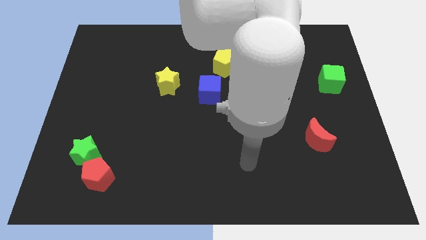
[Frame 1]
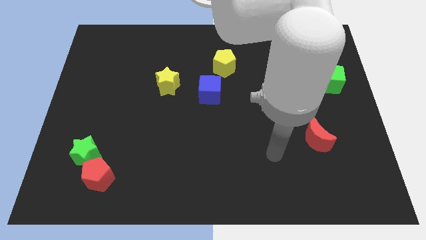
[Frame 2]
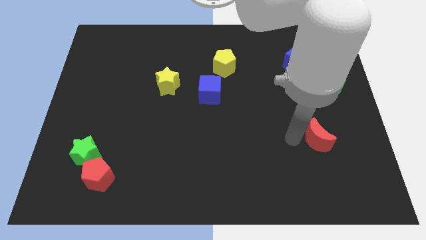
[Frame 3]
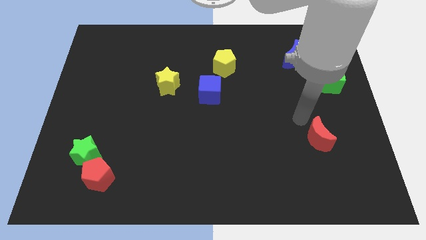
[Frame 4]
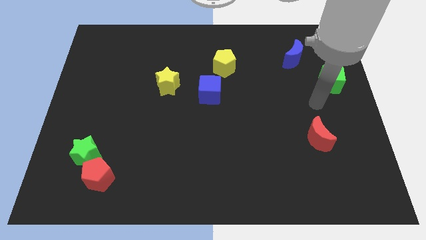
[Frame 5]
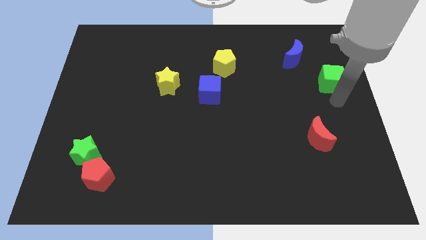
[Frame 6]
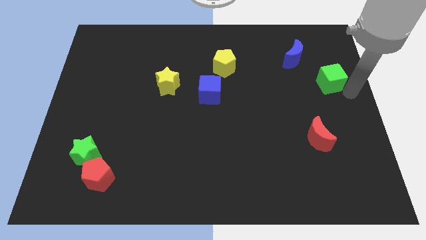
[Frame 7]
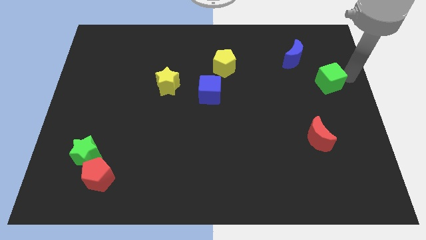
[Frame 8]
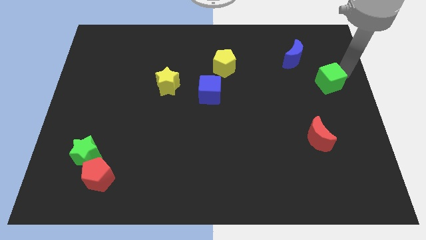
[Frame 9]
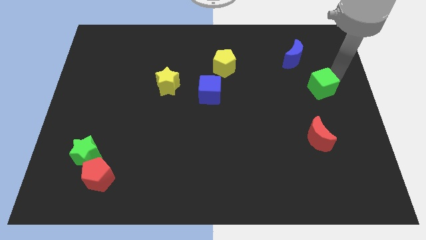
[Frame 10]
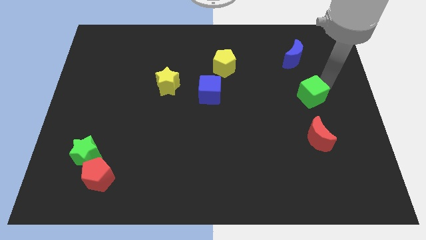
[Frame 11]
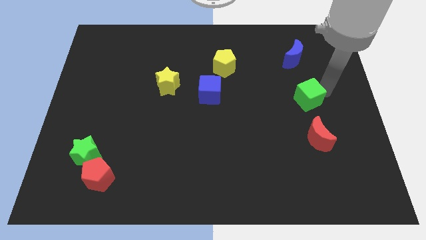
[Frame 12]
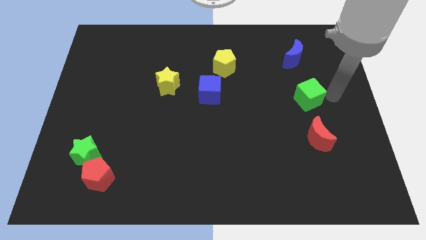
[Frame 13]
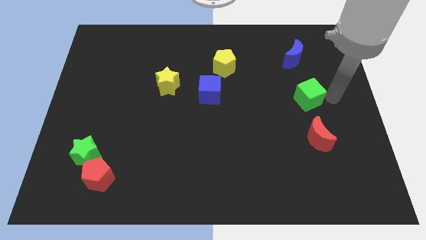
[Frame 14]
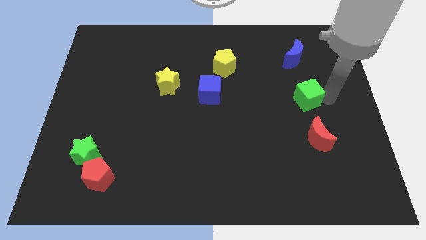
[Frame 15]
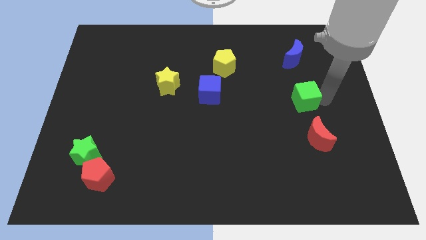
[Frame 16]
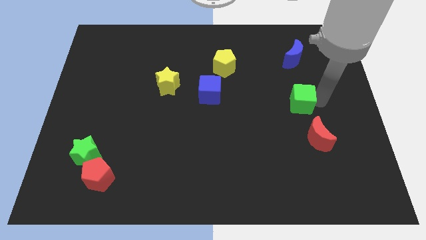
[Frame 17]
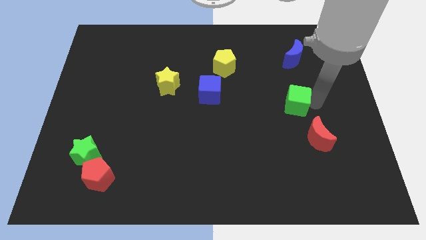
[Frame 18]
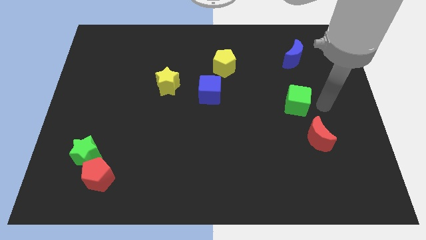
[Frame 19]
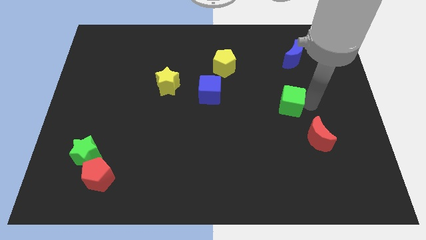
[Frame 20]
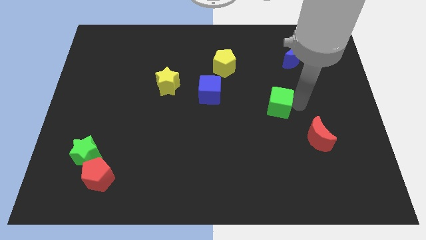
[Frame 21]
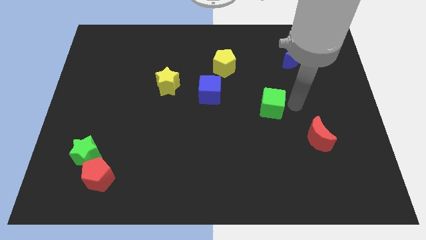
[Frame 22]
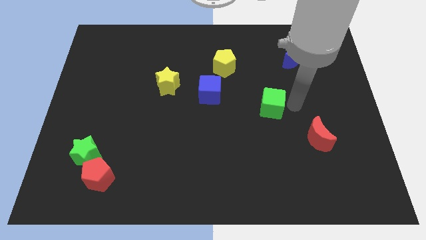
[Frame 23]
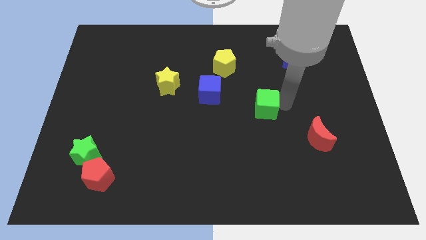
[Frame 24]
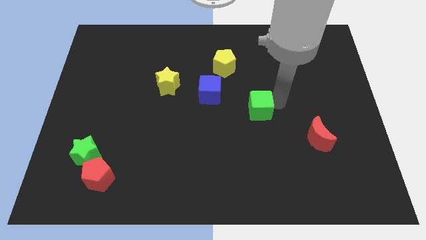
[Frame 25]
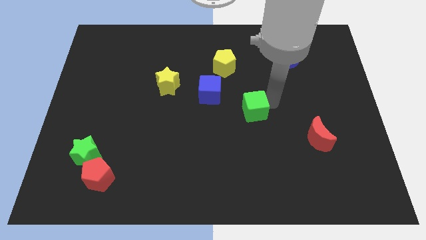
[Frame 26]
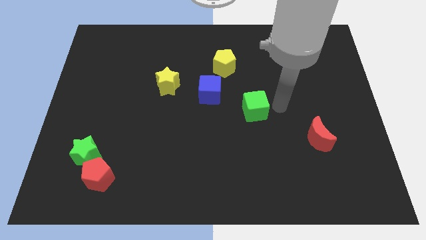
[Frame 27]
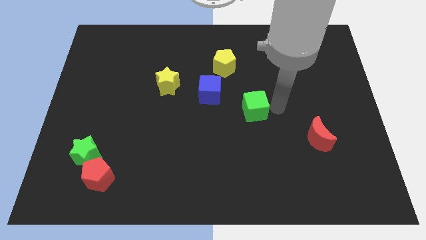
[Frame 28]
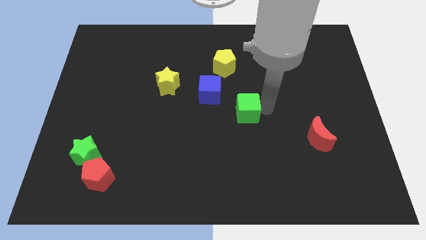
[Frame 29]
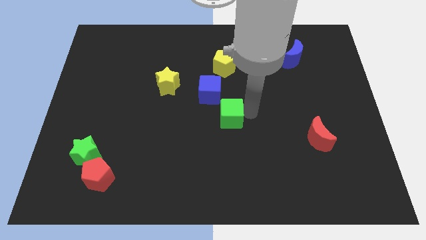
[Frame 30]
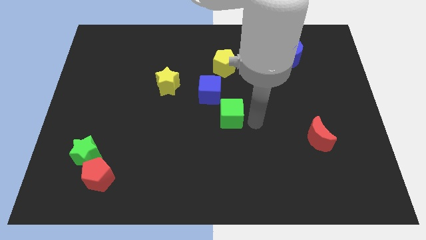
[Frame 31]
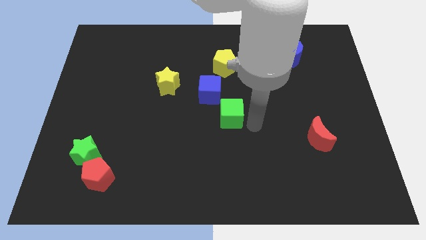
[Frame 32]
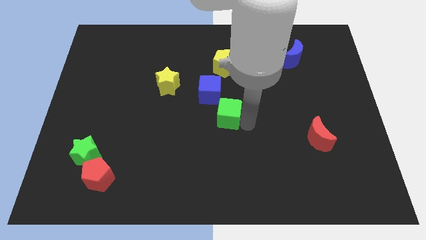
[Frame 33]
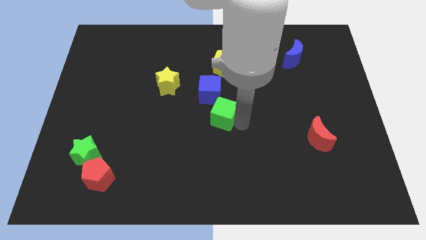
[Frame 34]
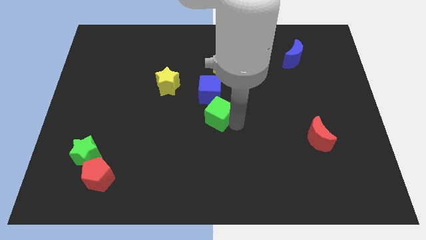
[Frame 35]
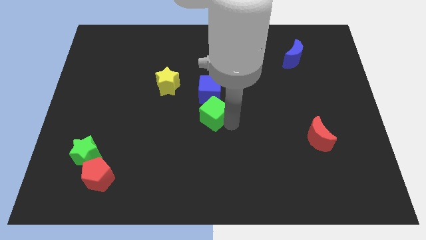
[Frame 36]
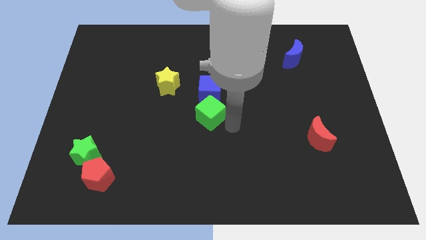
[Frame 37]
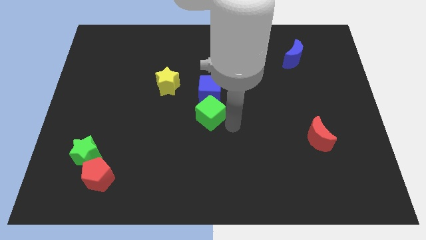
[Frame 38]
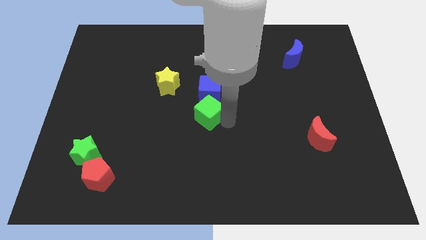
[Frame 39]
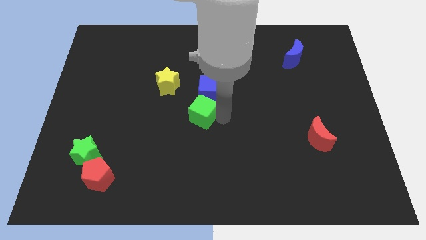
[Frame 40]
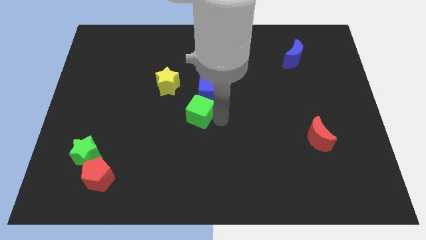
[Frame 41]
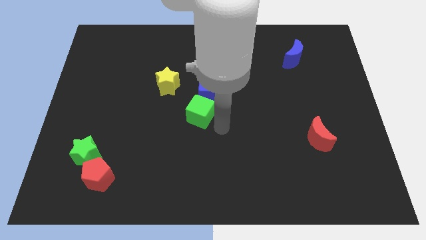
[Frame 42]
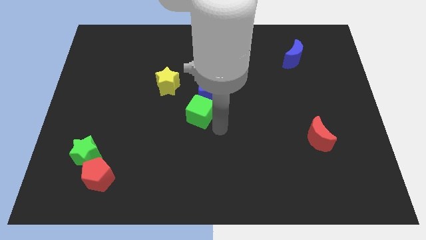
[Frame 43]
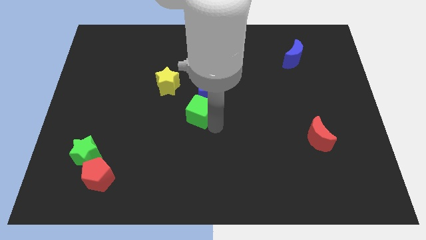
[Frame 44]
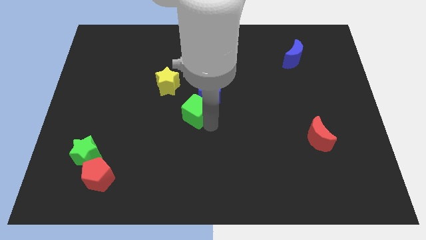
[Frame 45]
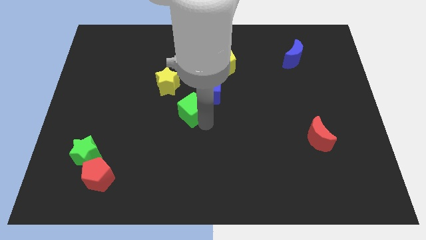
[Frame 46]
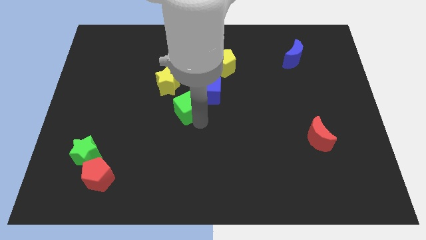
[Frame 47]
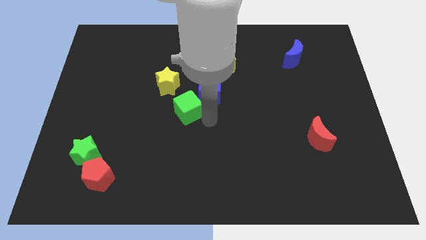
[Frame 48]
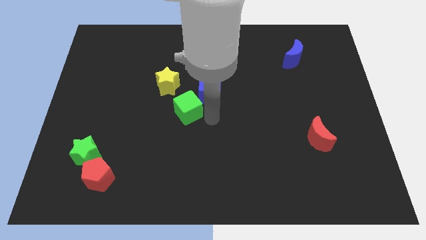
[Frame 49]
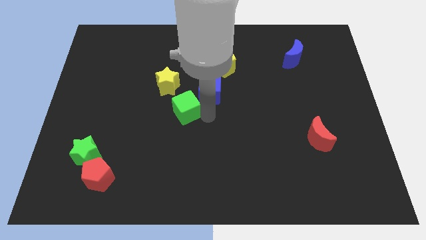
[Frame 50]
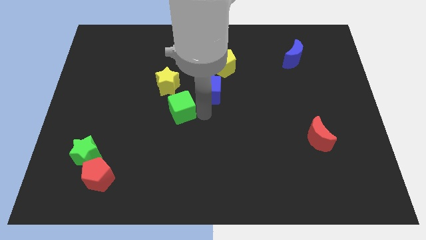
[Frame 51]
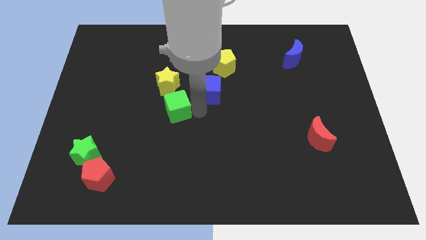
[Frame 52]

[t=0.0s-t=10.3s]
move the green cube to the left side of the blue cube

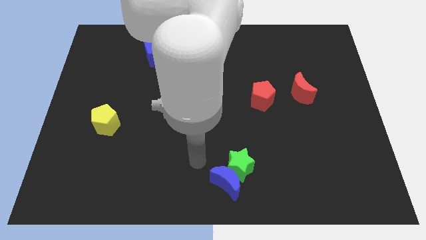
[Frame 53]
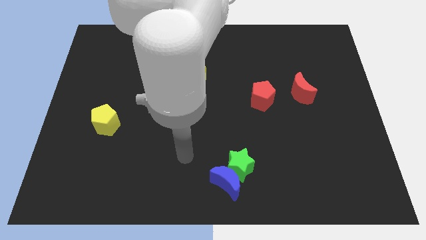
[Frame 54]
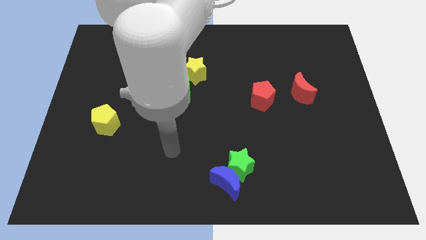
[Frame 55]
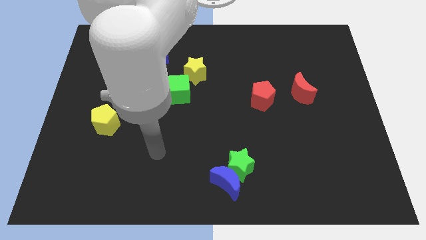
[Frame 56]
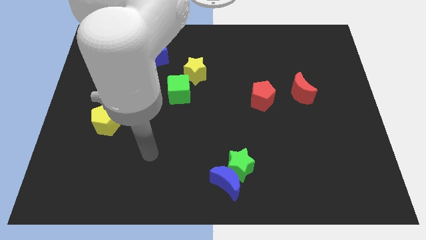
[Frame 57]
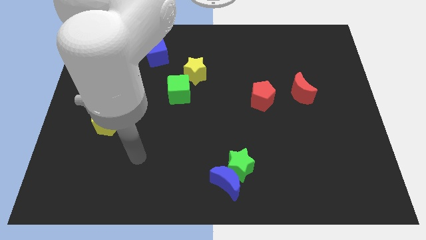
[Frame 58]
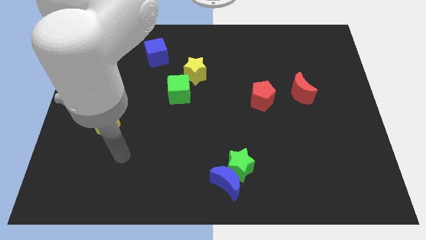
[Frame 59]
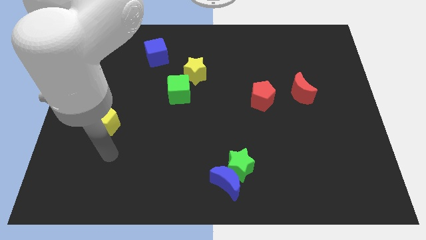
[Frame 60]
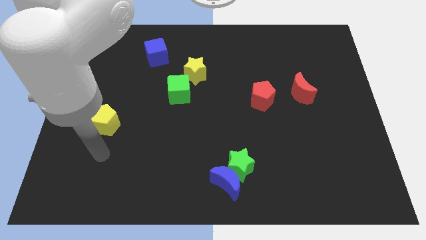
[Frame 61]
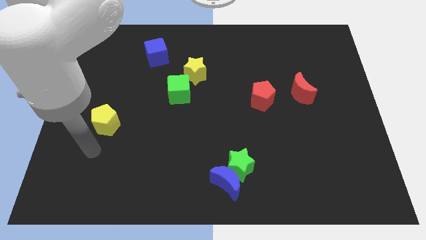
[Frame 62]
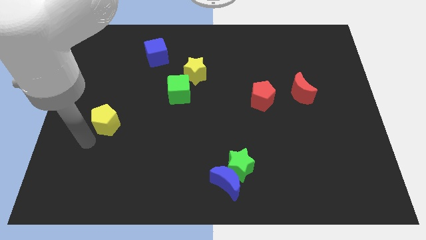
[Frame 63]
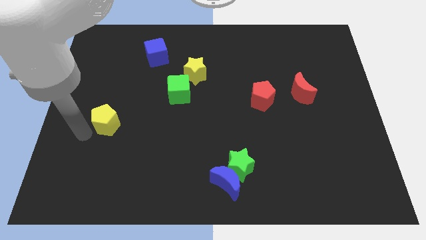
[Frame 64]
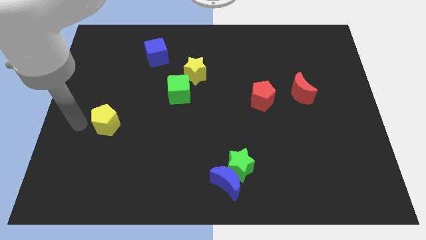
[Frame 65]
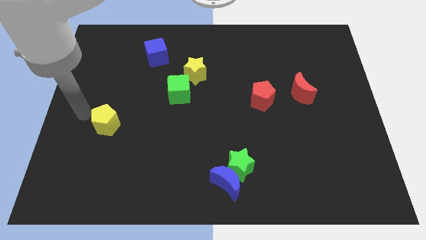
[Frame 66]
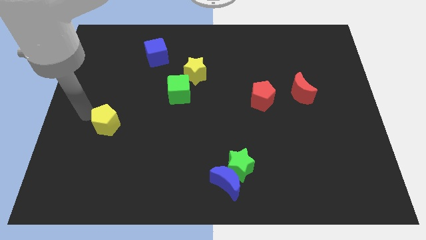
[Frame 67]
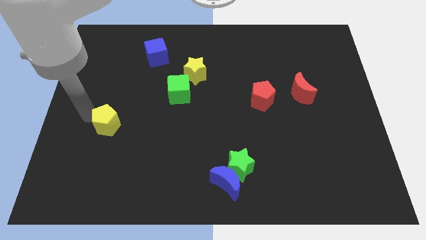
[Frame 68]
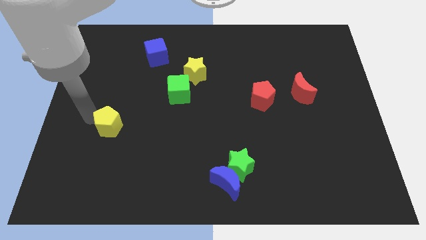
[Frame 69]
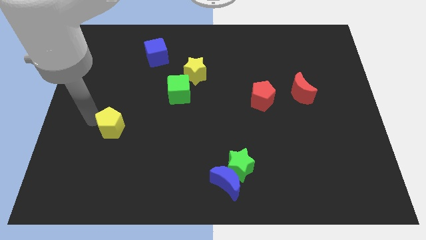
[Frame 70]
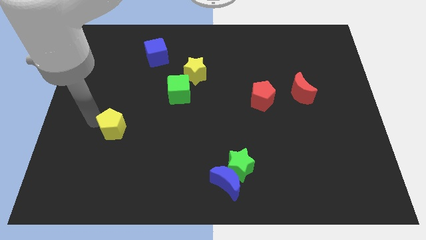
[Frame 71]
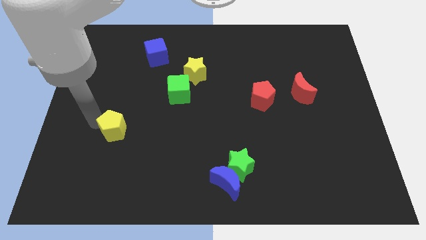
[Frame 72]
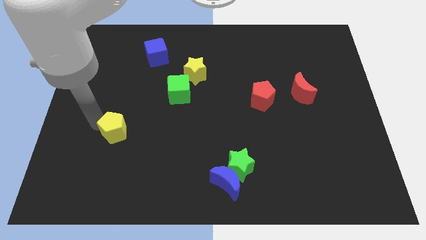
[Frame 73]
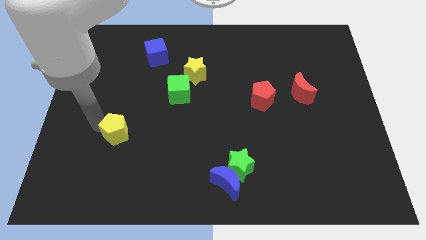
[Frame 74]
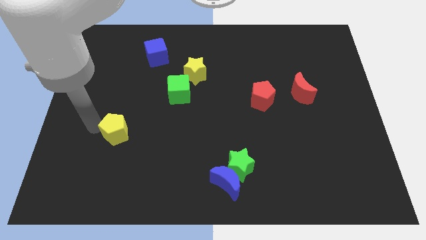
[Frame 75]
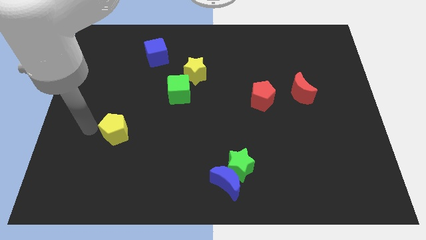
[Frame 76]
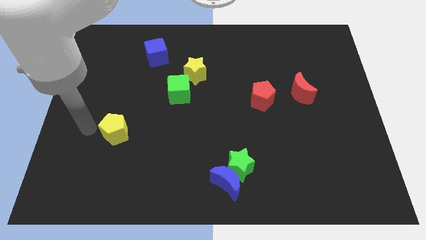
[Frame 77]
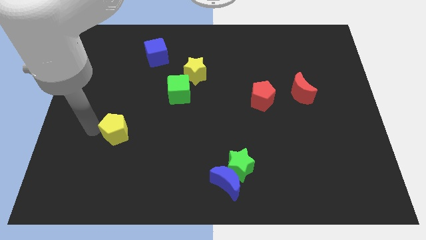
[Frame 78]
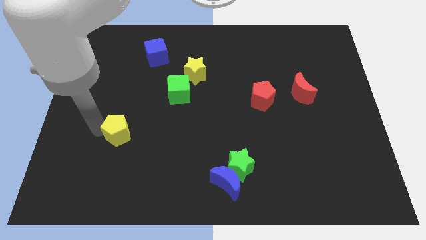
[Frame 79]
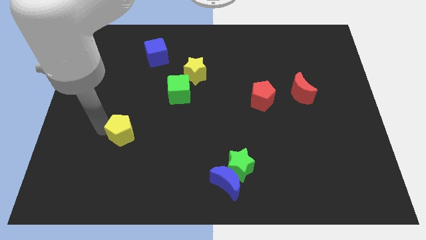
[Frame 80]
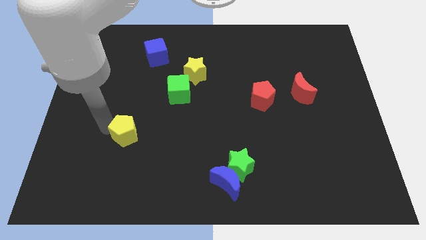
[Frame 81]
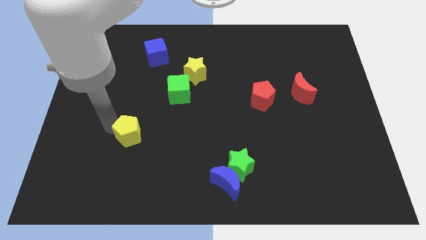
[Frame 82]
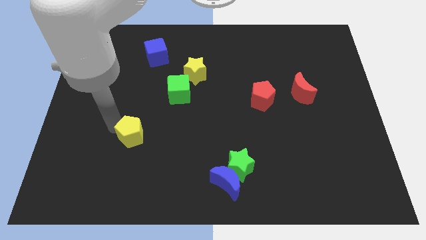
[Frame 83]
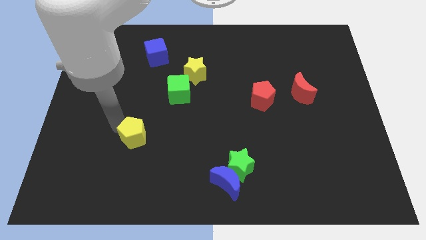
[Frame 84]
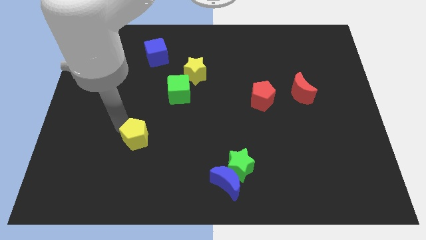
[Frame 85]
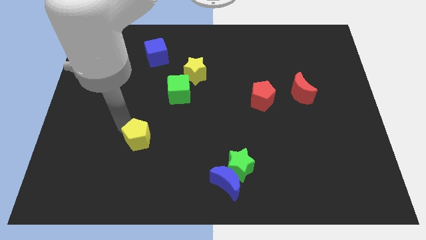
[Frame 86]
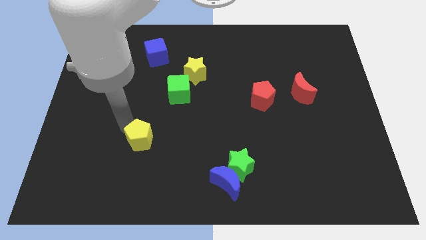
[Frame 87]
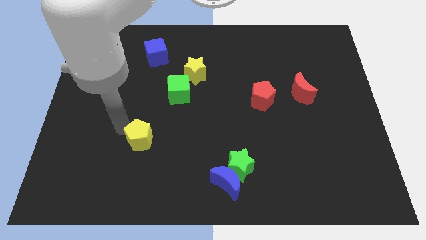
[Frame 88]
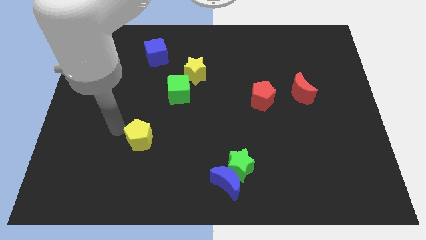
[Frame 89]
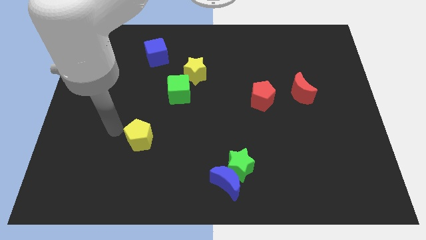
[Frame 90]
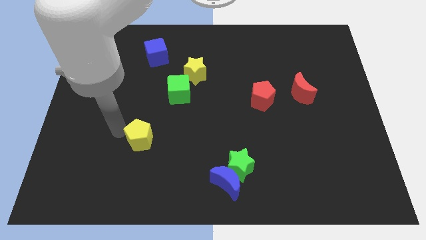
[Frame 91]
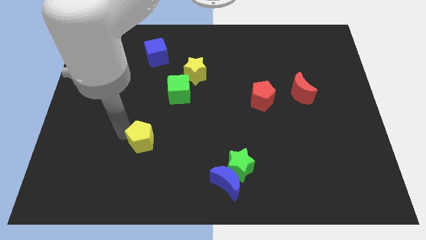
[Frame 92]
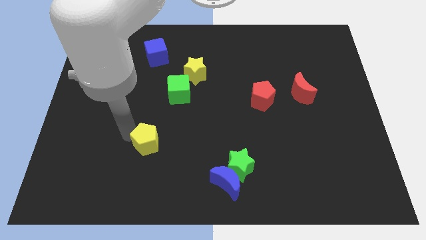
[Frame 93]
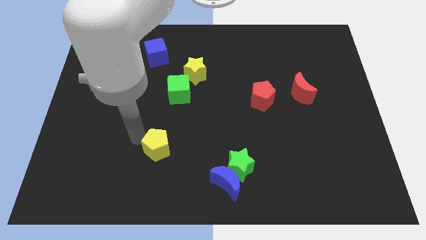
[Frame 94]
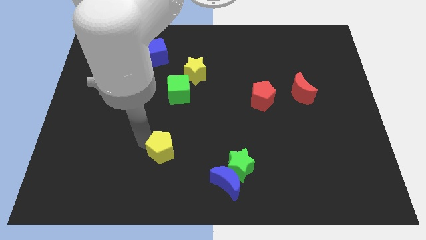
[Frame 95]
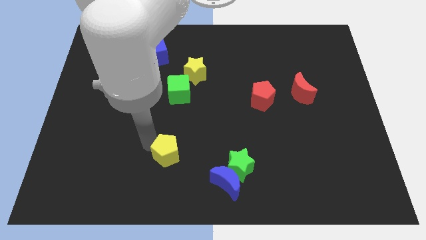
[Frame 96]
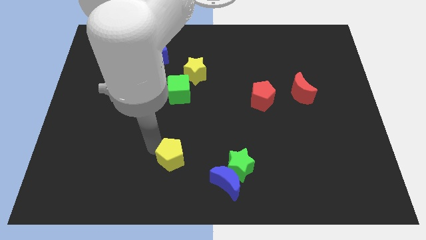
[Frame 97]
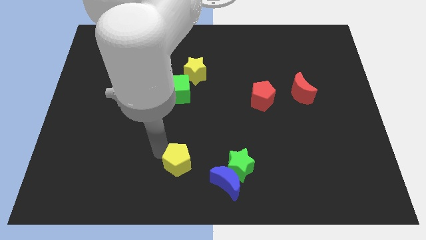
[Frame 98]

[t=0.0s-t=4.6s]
push the yellow pentagon to the top left side of the blue moon
